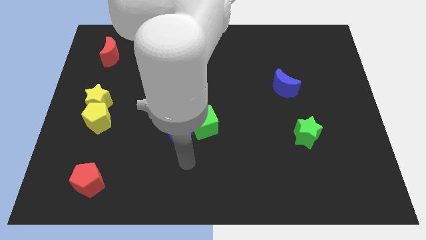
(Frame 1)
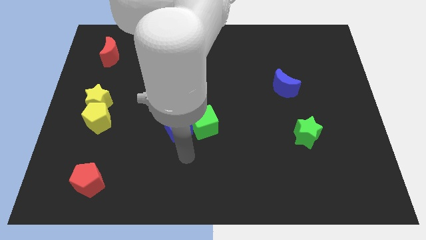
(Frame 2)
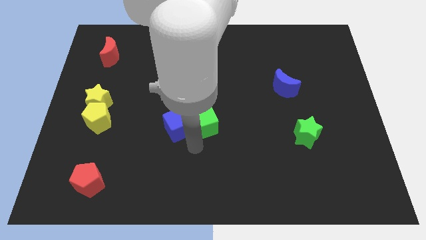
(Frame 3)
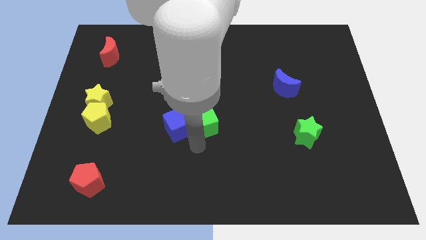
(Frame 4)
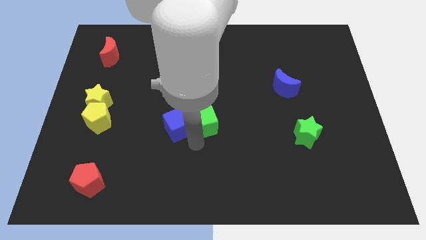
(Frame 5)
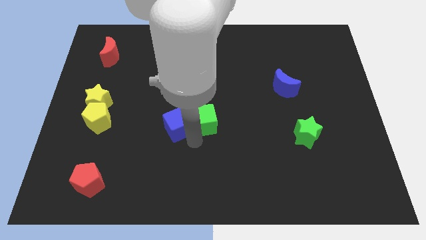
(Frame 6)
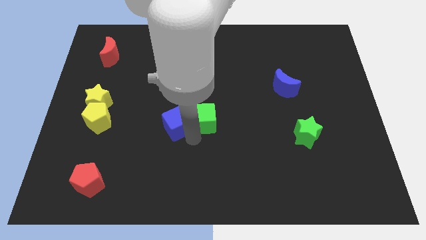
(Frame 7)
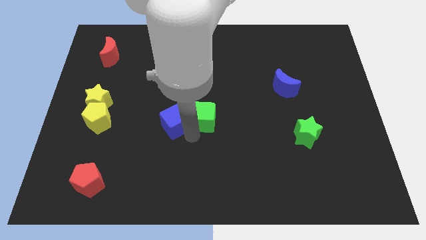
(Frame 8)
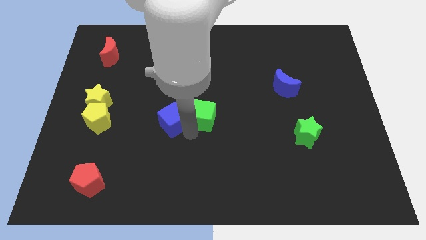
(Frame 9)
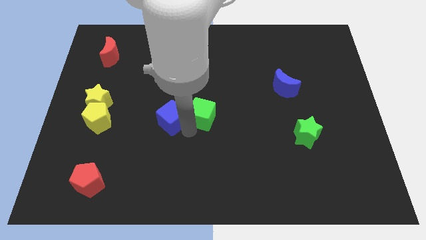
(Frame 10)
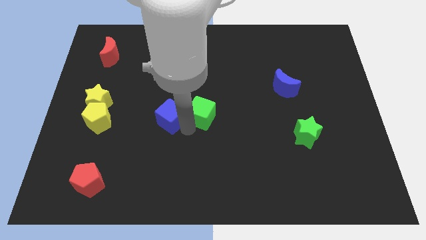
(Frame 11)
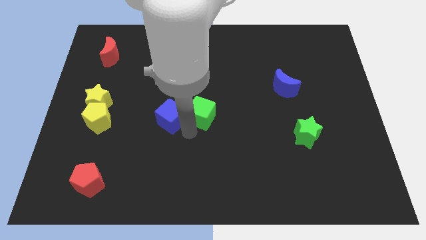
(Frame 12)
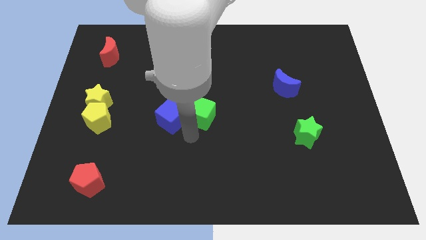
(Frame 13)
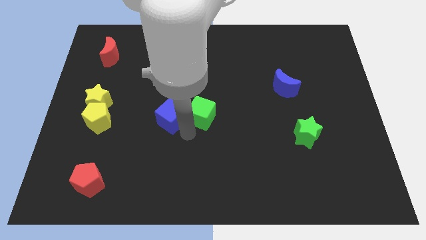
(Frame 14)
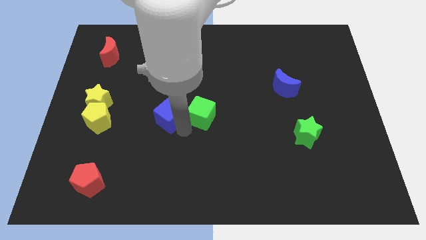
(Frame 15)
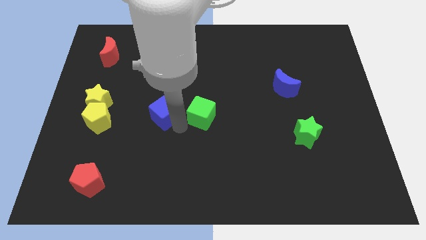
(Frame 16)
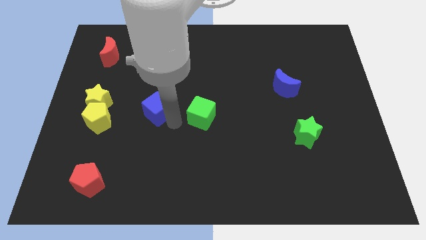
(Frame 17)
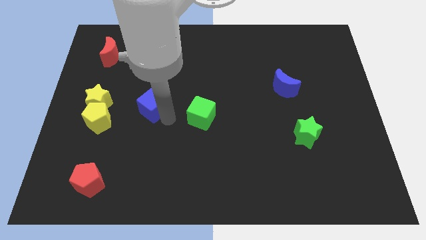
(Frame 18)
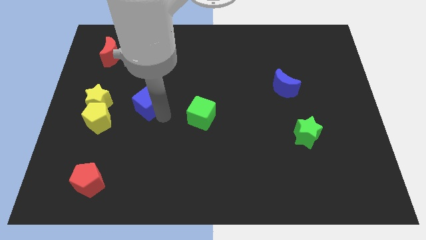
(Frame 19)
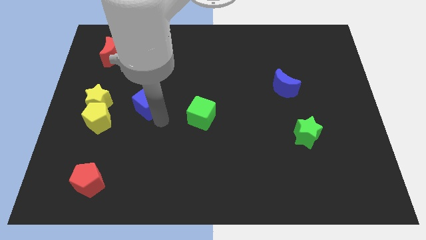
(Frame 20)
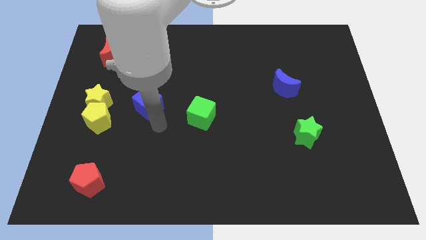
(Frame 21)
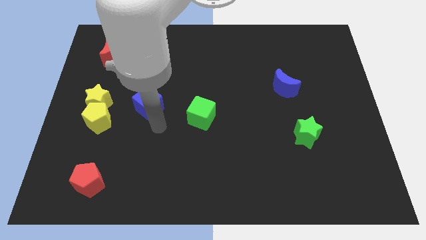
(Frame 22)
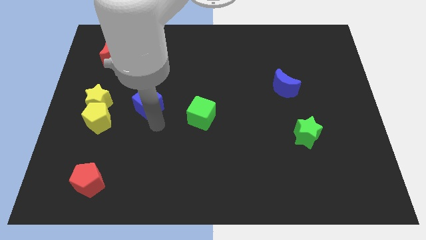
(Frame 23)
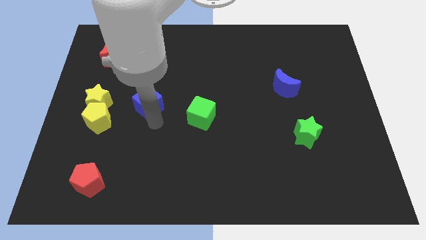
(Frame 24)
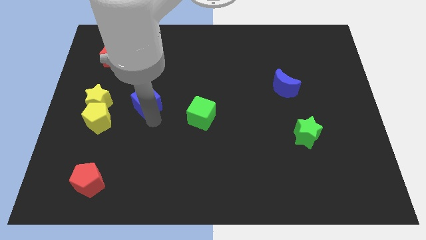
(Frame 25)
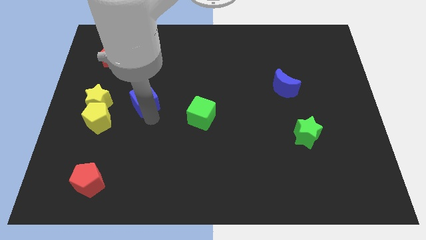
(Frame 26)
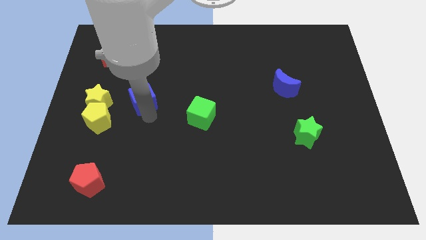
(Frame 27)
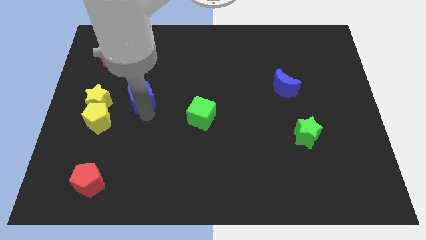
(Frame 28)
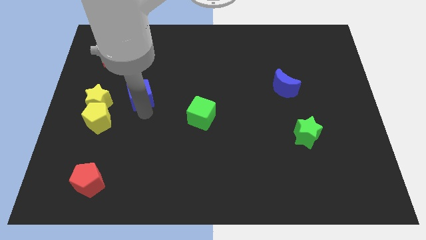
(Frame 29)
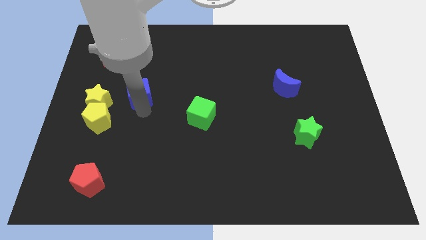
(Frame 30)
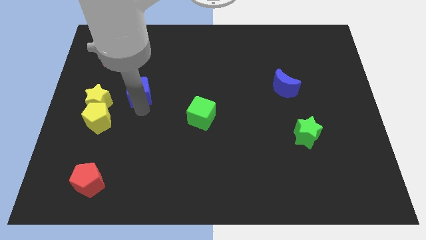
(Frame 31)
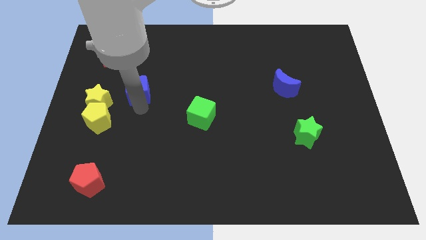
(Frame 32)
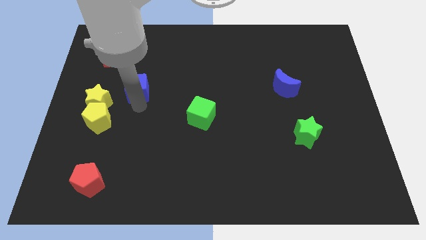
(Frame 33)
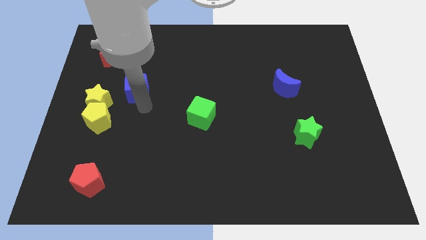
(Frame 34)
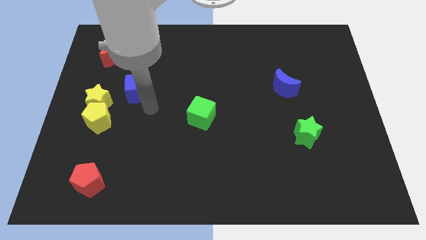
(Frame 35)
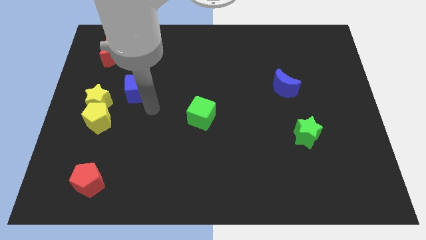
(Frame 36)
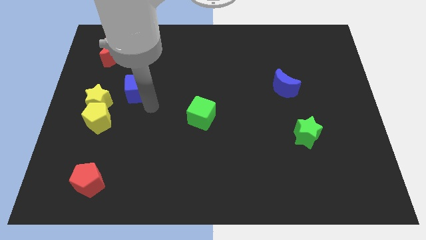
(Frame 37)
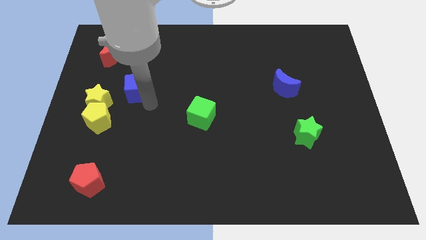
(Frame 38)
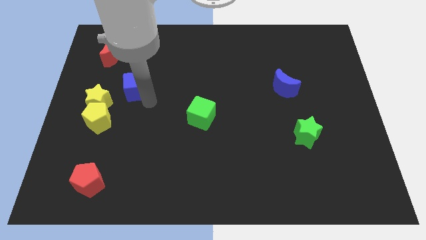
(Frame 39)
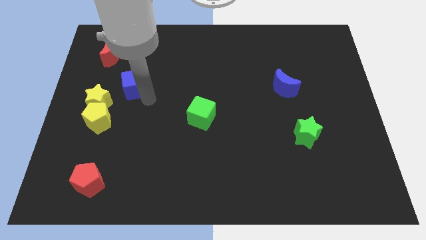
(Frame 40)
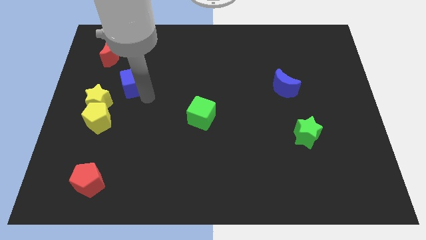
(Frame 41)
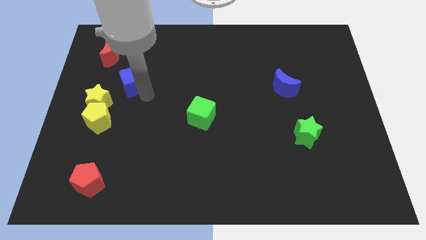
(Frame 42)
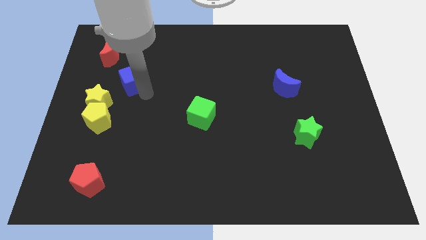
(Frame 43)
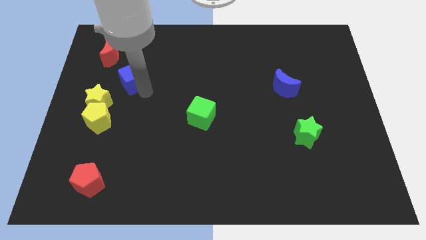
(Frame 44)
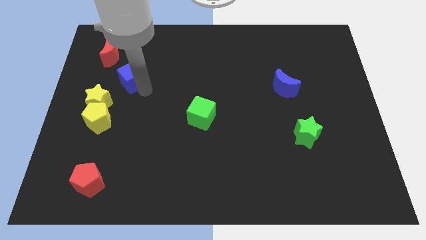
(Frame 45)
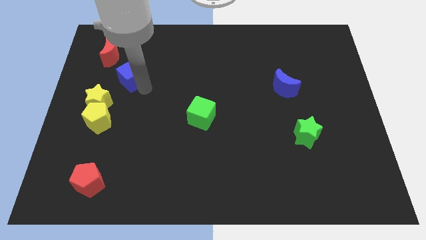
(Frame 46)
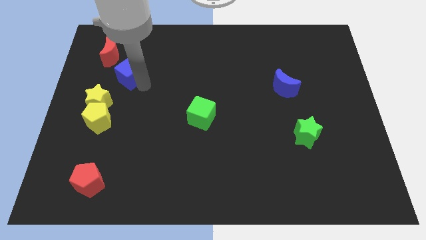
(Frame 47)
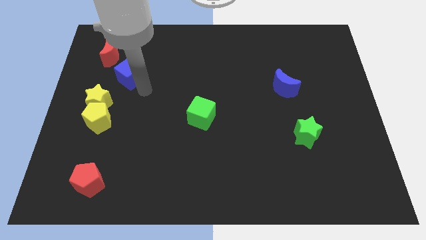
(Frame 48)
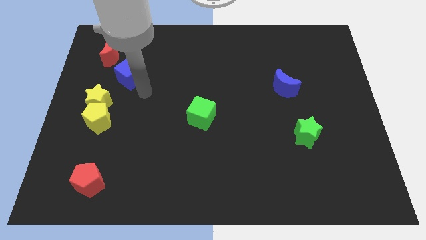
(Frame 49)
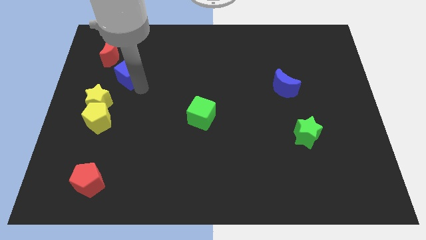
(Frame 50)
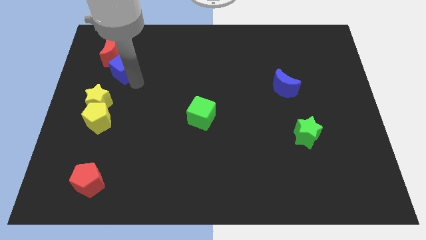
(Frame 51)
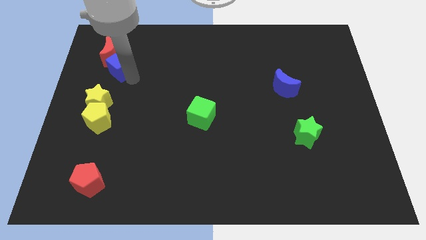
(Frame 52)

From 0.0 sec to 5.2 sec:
put the blue cube towards the red moon

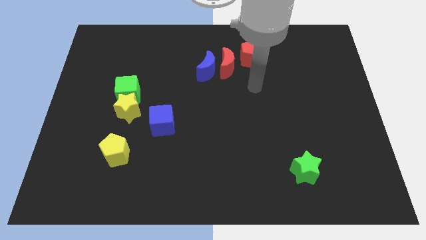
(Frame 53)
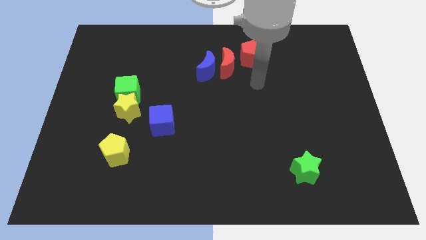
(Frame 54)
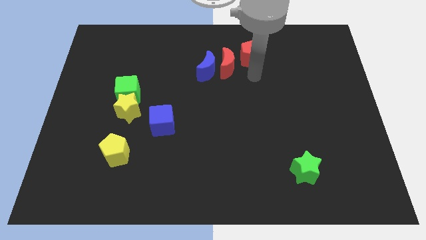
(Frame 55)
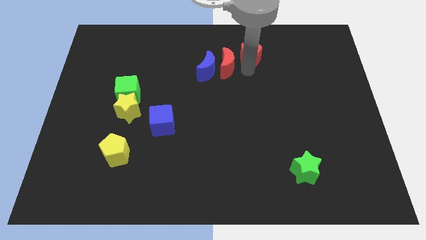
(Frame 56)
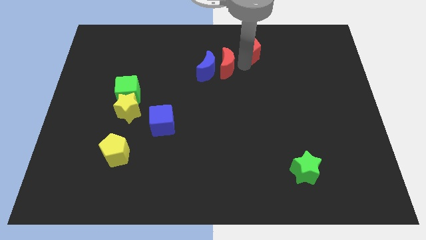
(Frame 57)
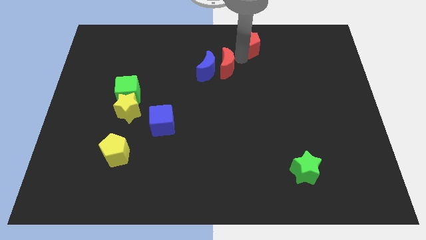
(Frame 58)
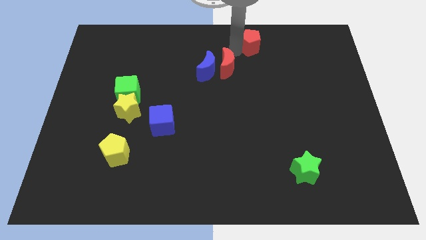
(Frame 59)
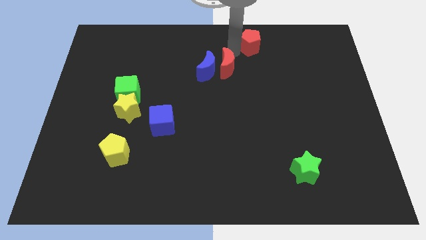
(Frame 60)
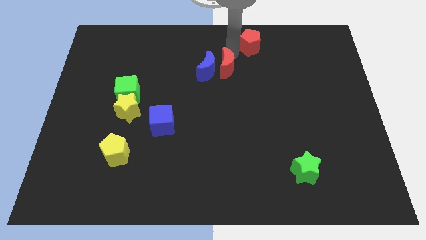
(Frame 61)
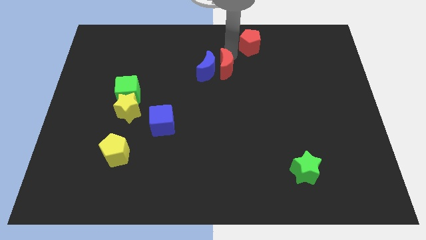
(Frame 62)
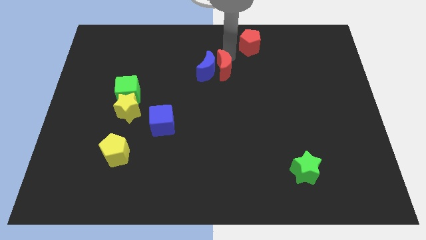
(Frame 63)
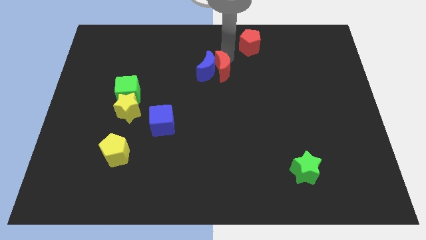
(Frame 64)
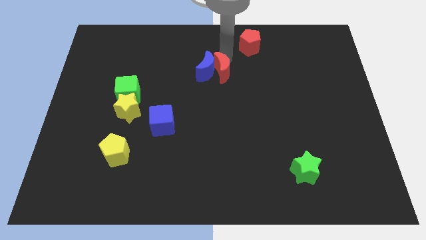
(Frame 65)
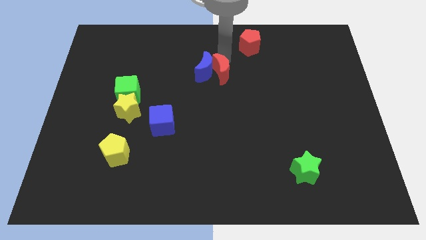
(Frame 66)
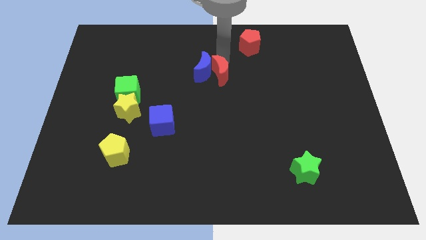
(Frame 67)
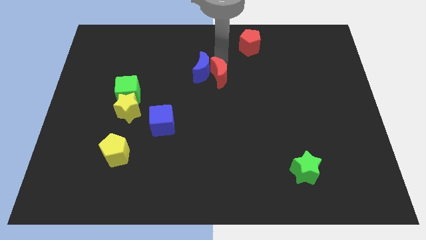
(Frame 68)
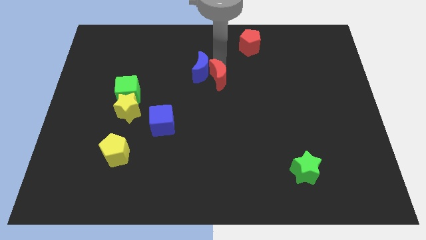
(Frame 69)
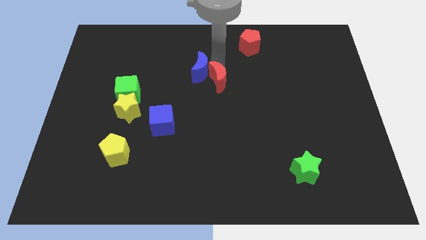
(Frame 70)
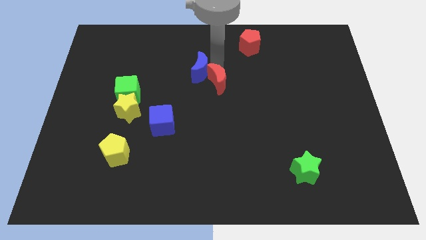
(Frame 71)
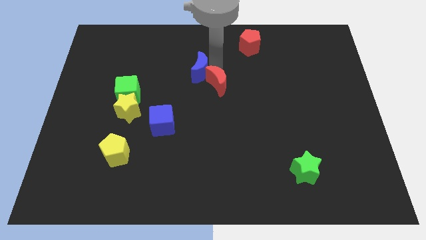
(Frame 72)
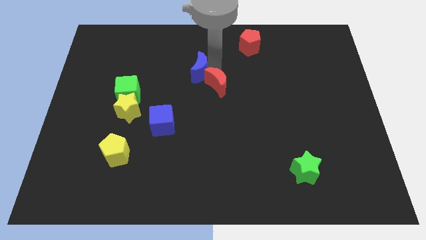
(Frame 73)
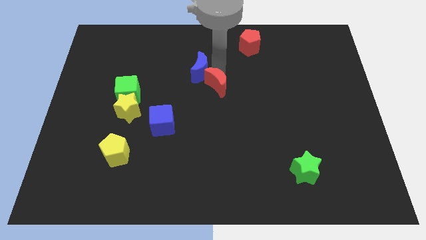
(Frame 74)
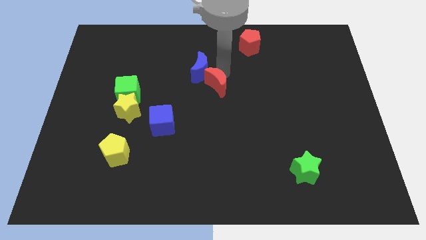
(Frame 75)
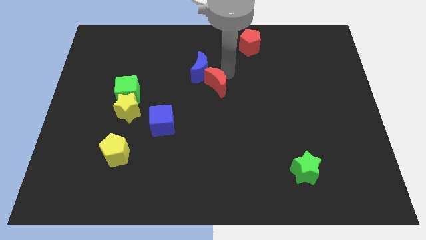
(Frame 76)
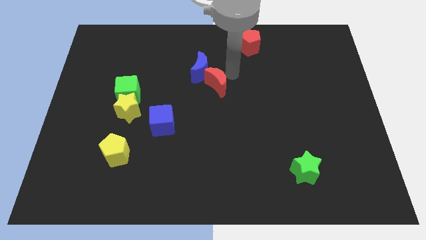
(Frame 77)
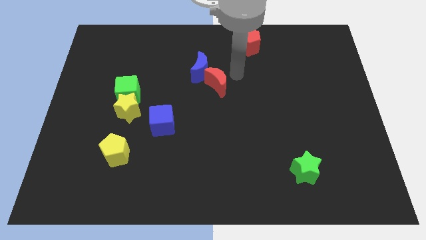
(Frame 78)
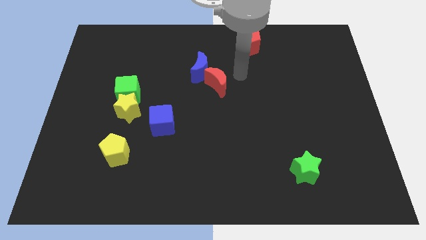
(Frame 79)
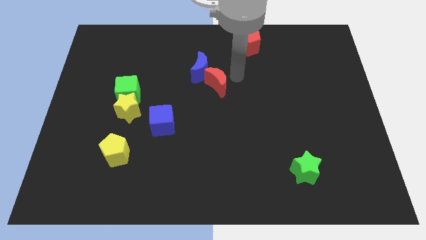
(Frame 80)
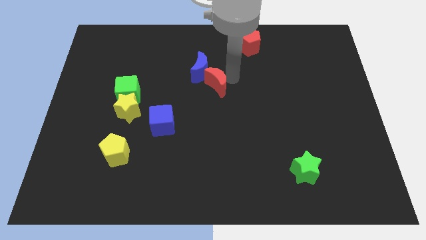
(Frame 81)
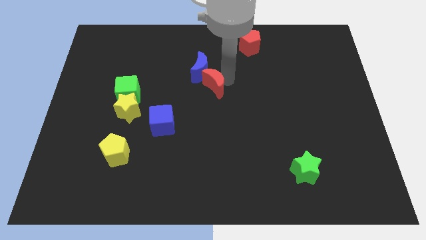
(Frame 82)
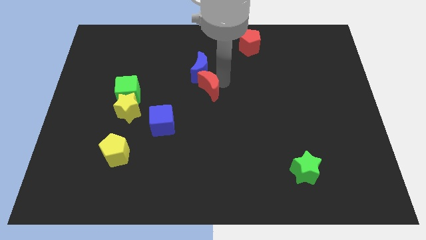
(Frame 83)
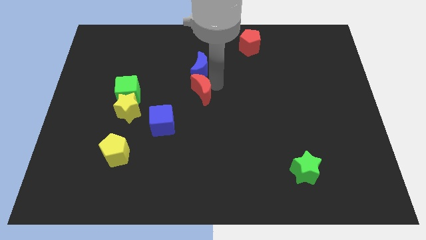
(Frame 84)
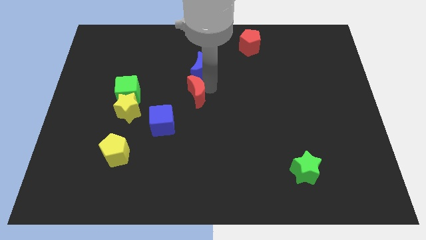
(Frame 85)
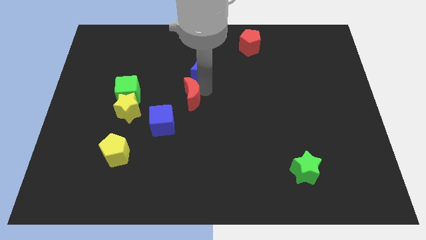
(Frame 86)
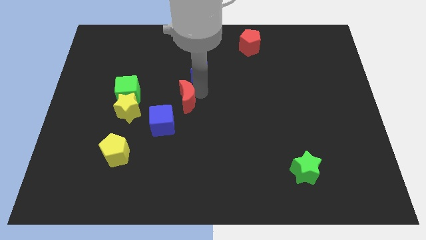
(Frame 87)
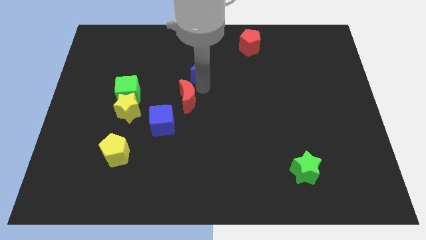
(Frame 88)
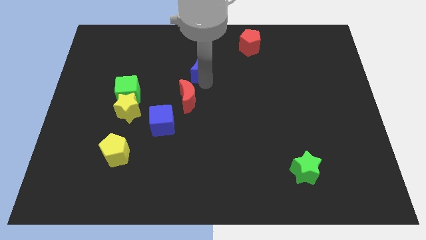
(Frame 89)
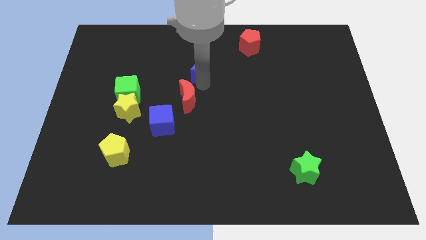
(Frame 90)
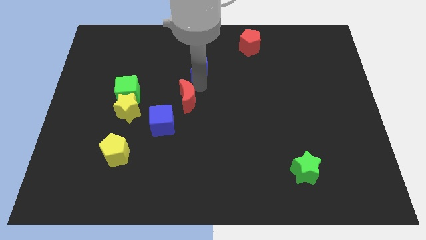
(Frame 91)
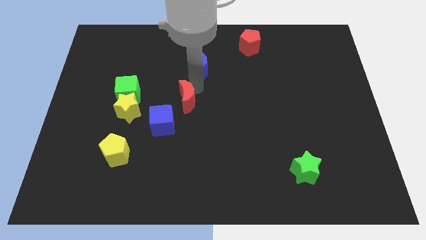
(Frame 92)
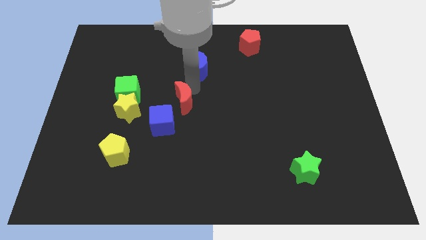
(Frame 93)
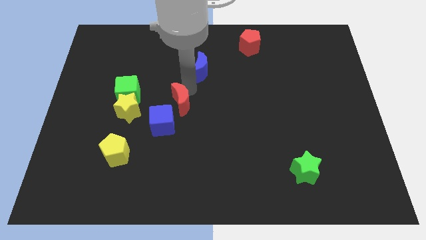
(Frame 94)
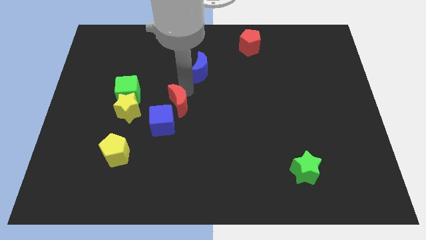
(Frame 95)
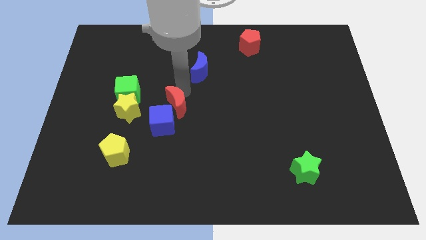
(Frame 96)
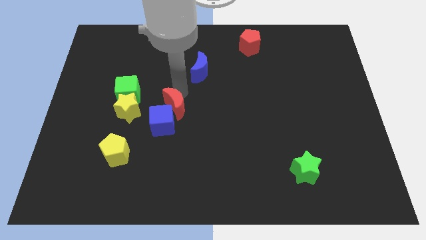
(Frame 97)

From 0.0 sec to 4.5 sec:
push the red moon close to the blue cube
